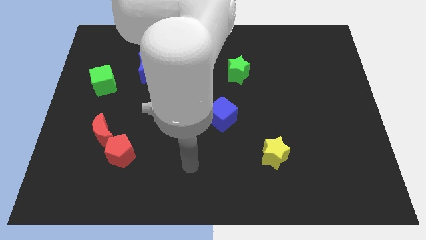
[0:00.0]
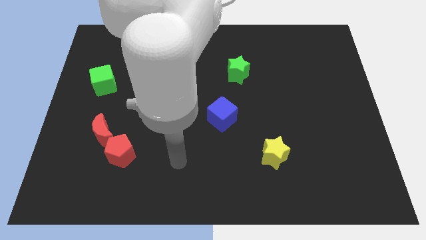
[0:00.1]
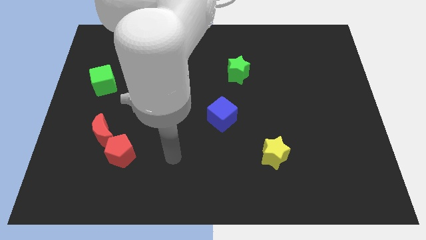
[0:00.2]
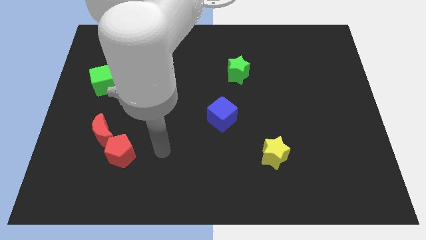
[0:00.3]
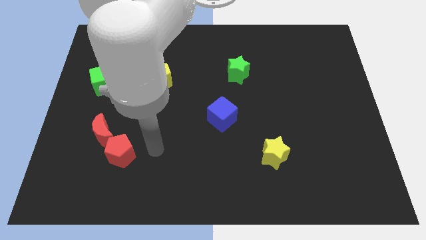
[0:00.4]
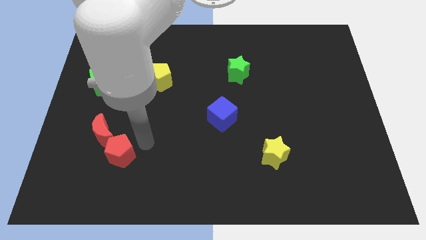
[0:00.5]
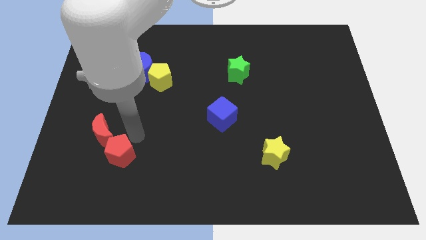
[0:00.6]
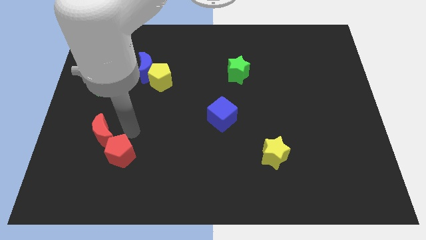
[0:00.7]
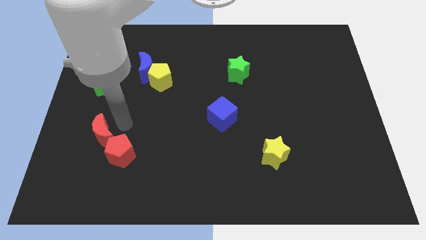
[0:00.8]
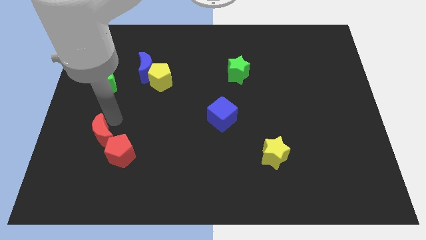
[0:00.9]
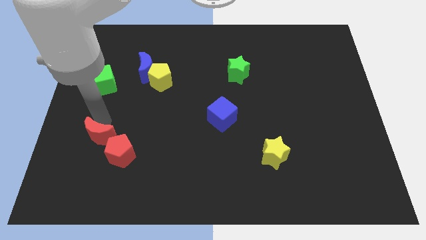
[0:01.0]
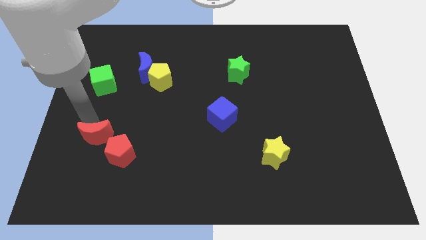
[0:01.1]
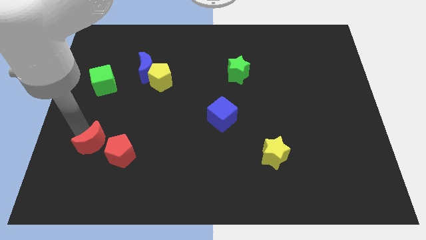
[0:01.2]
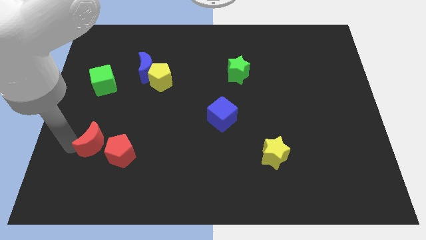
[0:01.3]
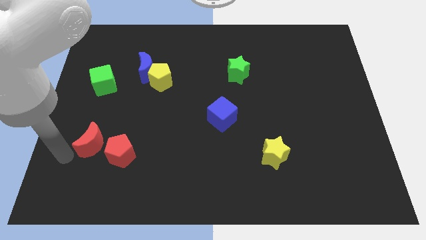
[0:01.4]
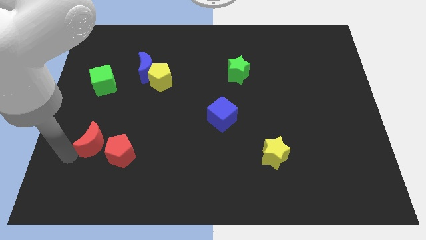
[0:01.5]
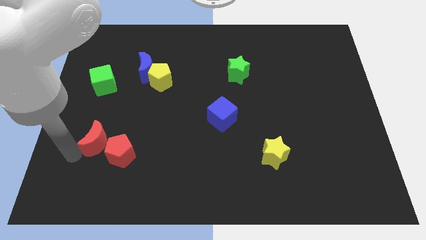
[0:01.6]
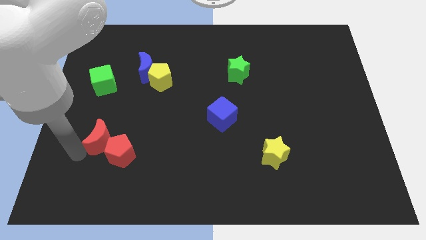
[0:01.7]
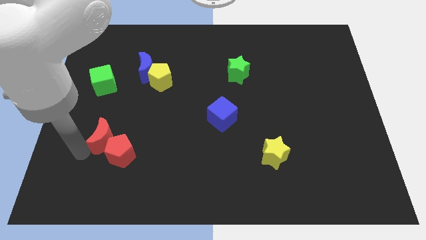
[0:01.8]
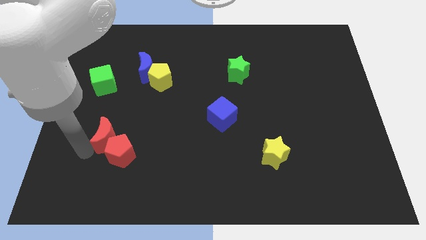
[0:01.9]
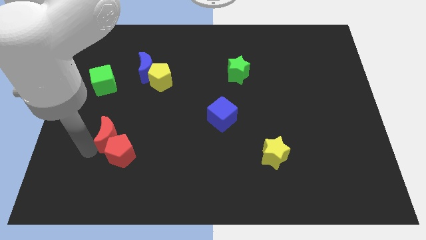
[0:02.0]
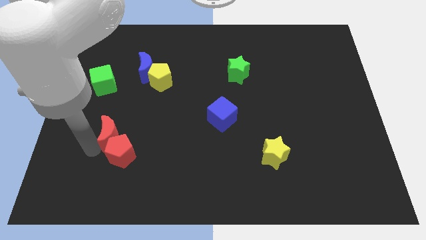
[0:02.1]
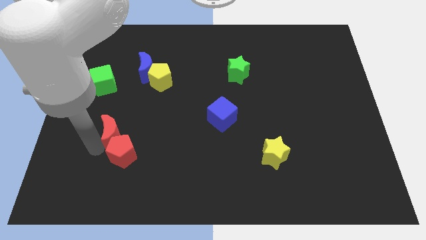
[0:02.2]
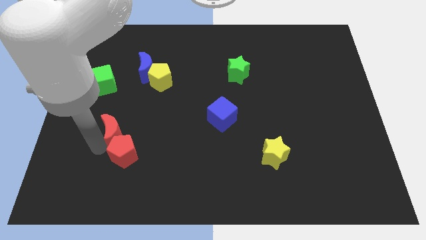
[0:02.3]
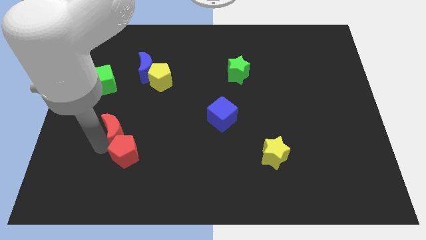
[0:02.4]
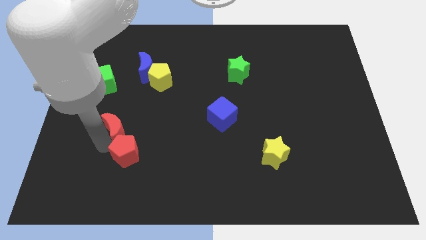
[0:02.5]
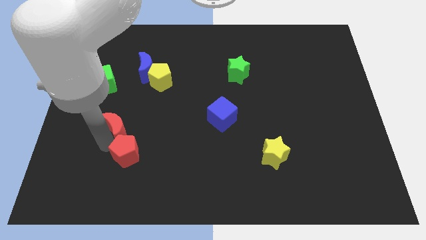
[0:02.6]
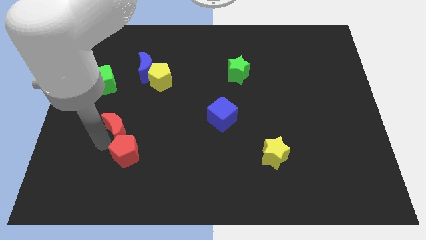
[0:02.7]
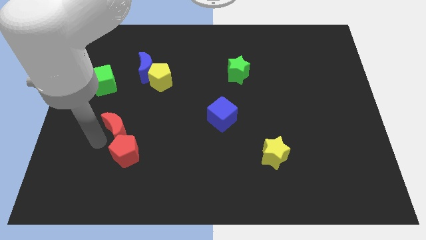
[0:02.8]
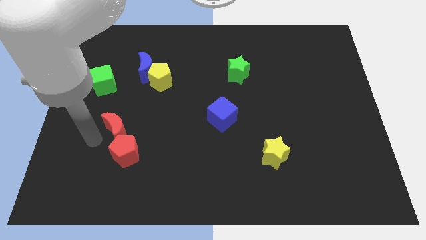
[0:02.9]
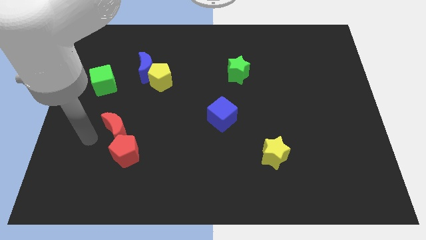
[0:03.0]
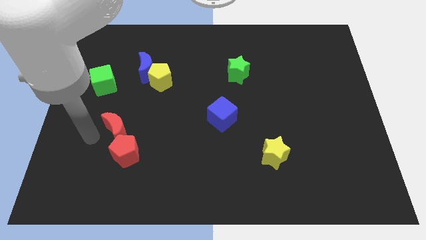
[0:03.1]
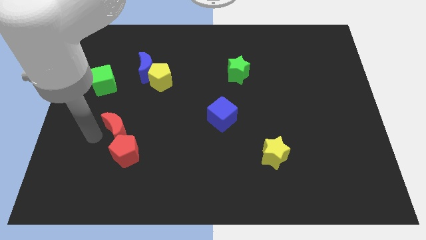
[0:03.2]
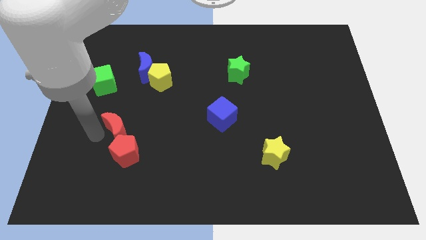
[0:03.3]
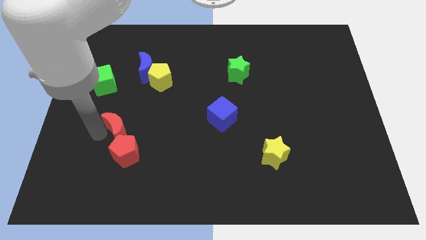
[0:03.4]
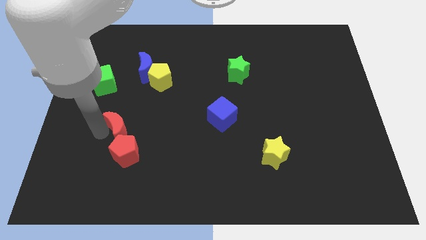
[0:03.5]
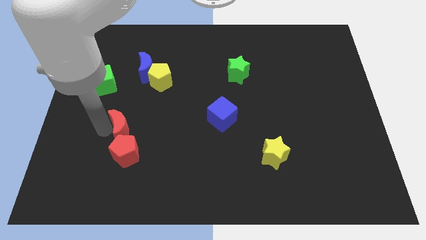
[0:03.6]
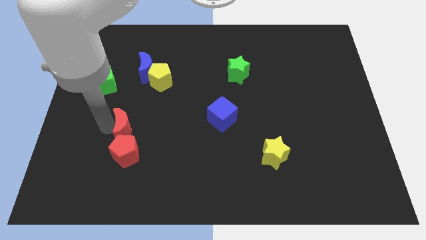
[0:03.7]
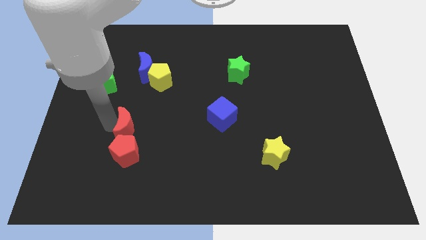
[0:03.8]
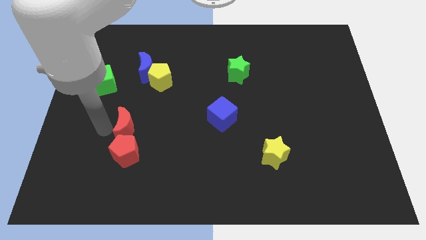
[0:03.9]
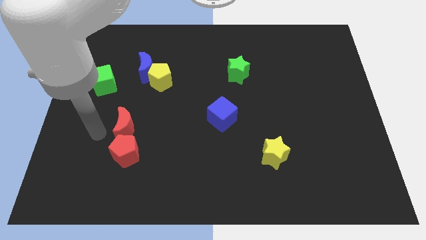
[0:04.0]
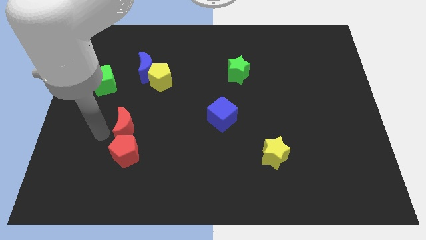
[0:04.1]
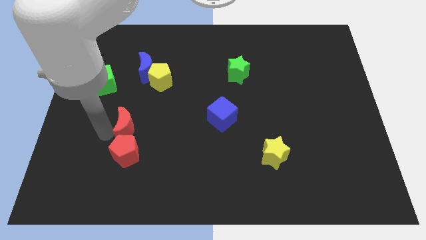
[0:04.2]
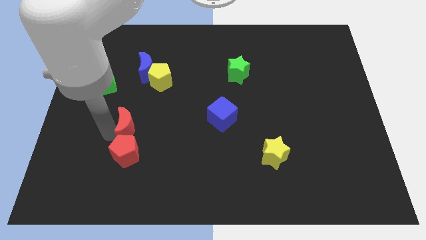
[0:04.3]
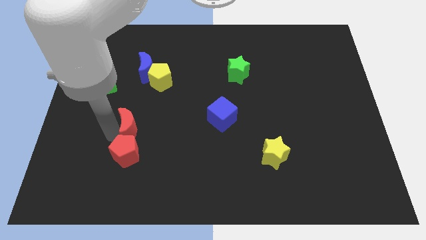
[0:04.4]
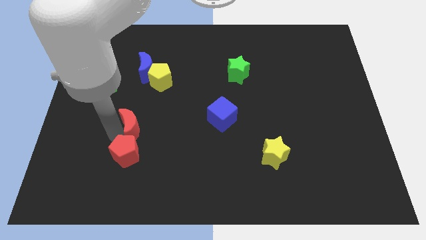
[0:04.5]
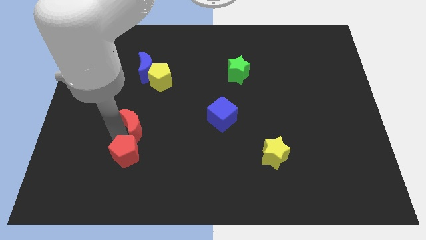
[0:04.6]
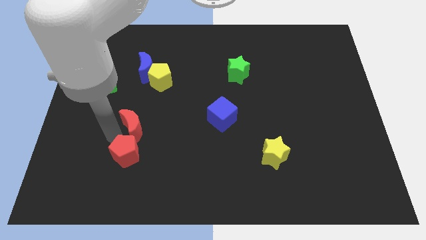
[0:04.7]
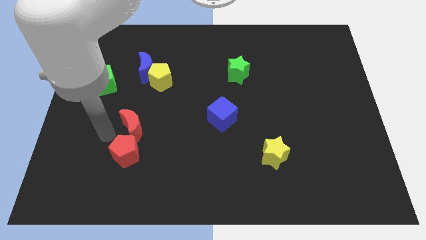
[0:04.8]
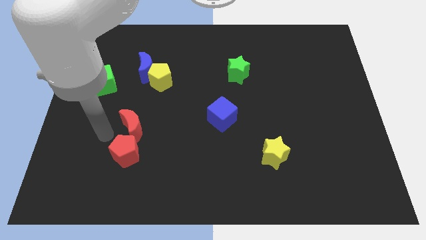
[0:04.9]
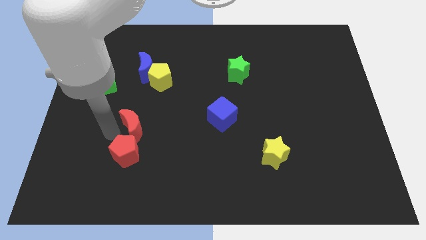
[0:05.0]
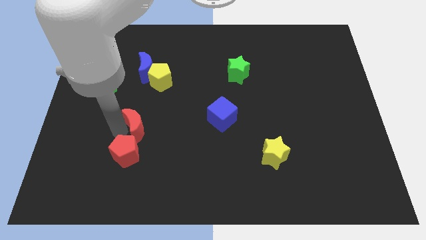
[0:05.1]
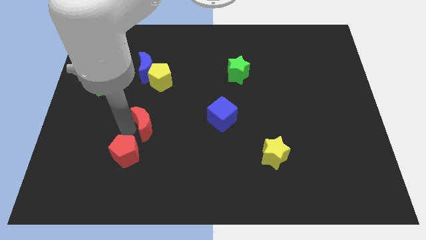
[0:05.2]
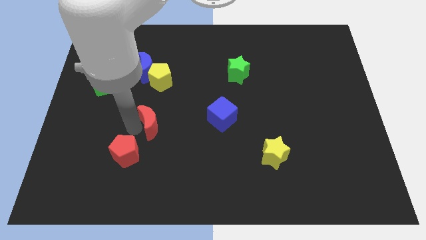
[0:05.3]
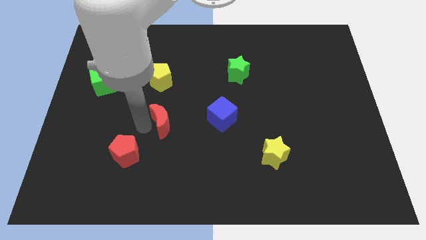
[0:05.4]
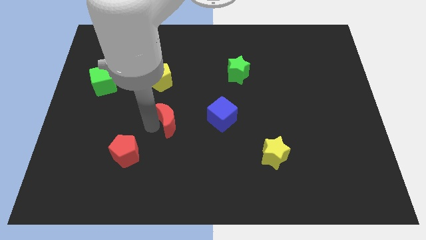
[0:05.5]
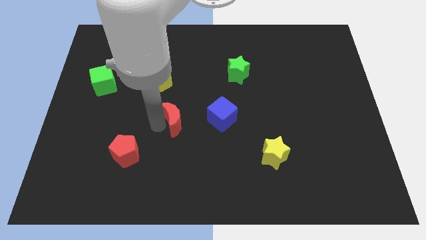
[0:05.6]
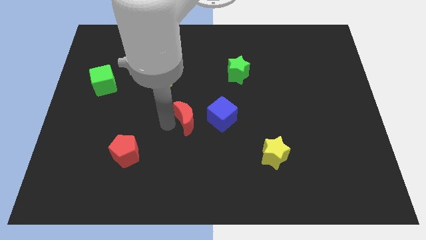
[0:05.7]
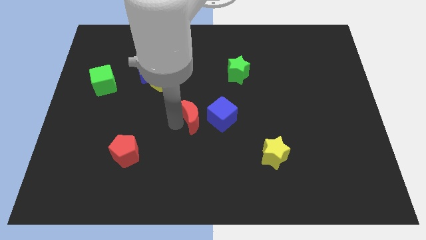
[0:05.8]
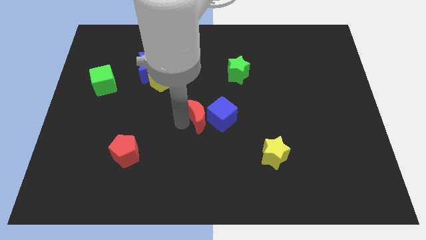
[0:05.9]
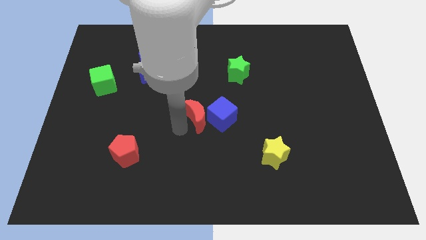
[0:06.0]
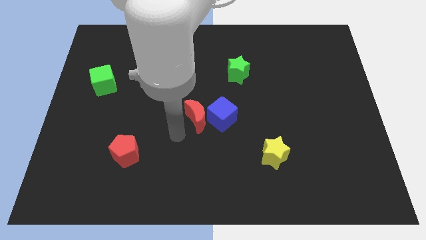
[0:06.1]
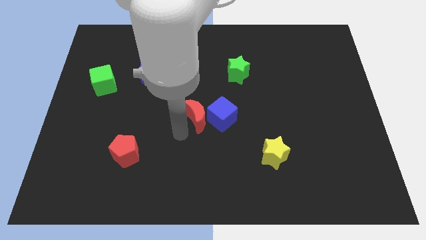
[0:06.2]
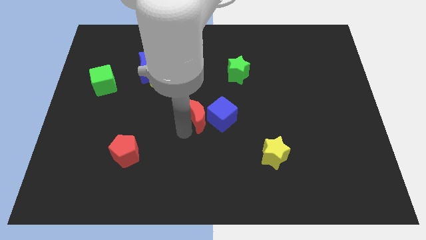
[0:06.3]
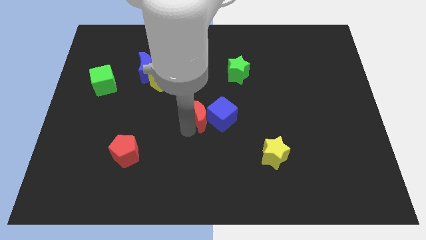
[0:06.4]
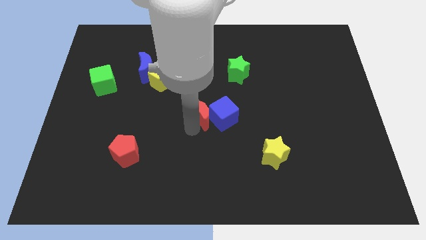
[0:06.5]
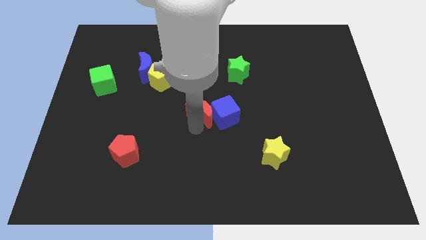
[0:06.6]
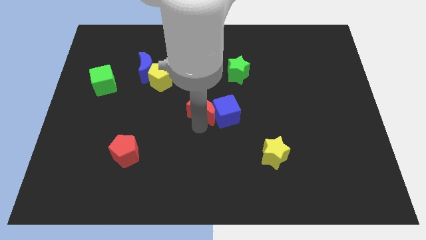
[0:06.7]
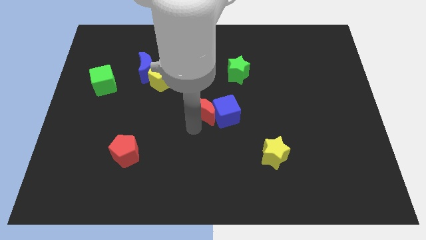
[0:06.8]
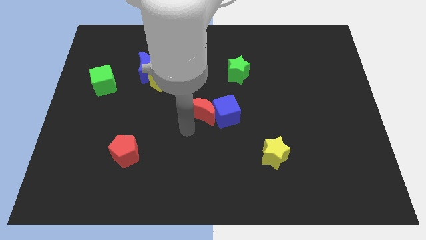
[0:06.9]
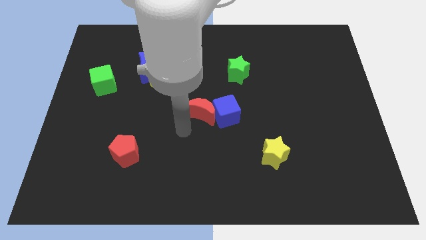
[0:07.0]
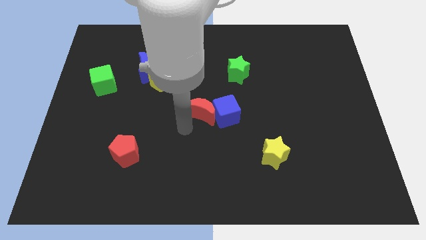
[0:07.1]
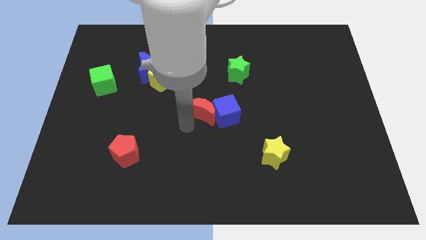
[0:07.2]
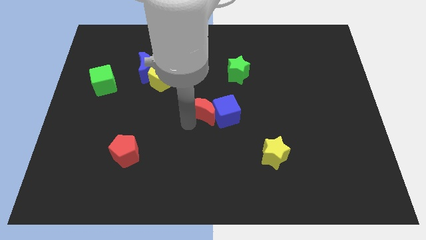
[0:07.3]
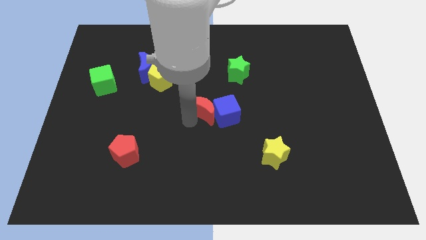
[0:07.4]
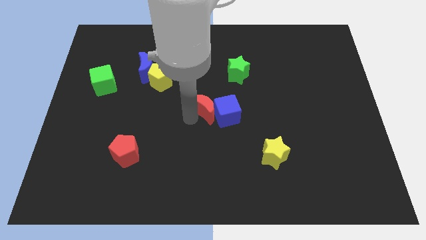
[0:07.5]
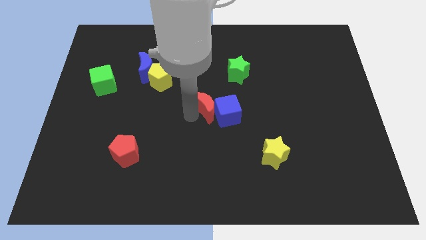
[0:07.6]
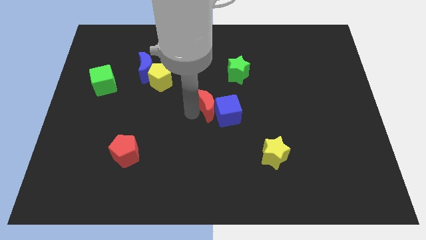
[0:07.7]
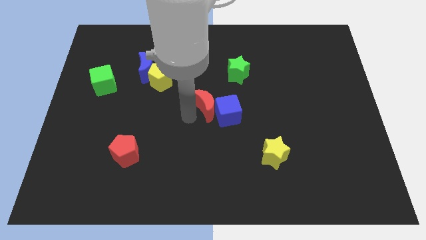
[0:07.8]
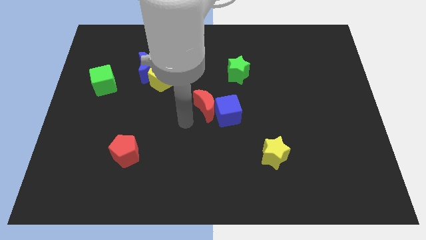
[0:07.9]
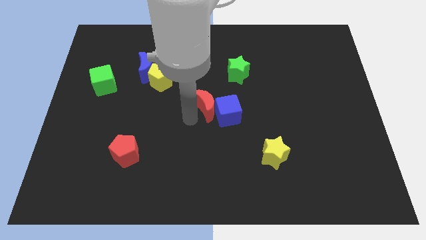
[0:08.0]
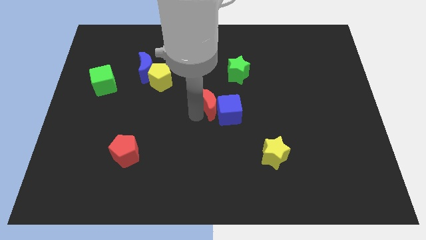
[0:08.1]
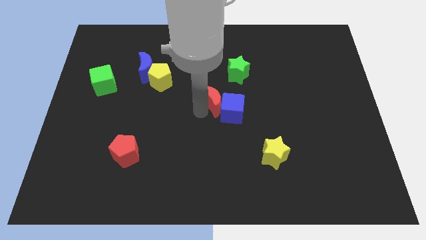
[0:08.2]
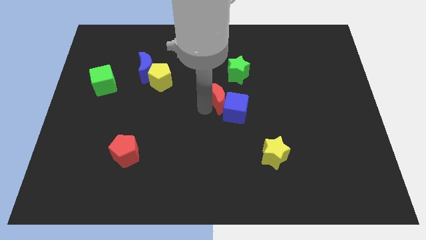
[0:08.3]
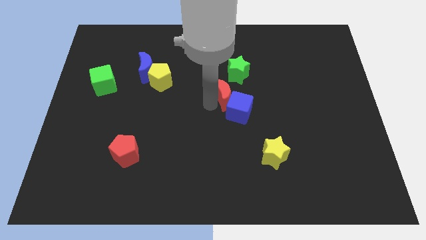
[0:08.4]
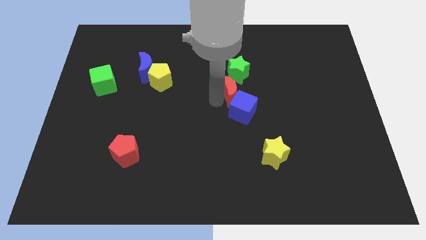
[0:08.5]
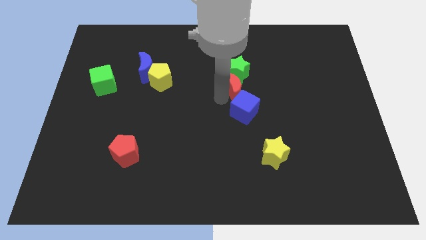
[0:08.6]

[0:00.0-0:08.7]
slide the red moon towards the green star
